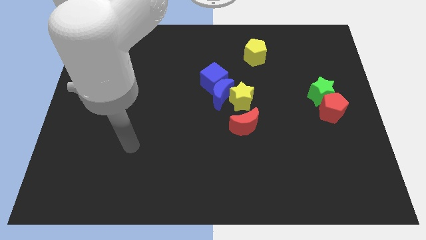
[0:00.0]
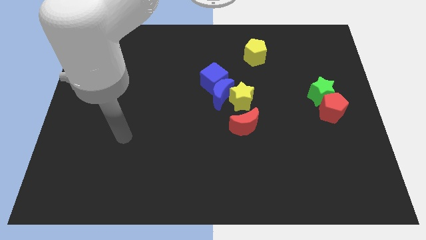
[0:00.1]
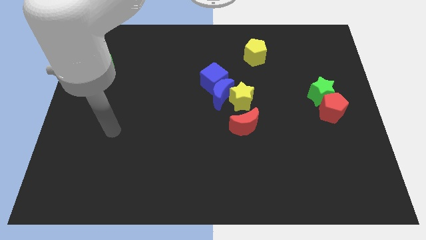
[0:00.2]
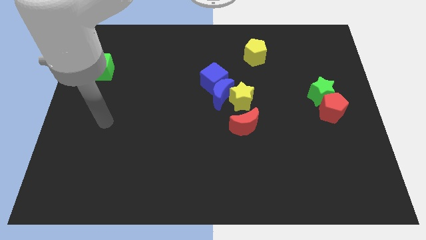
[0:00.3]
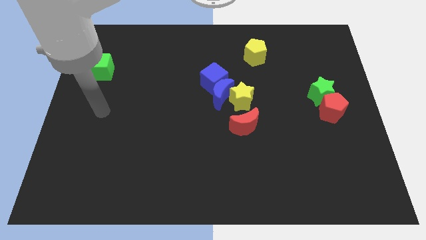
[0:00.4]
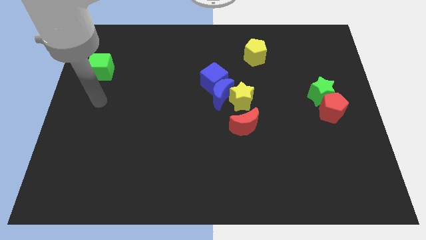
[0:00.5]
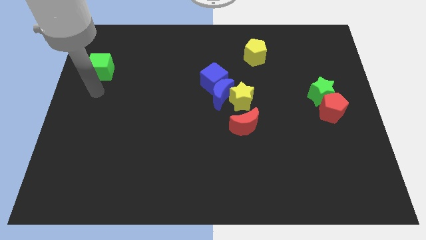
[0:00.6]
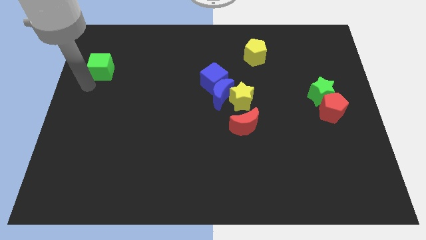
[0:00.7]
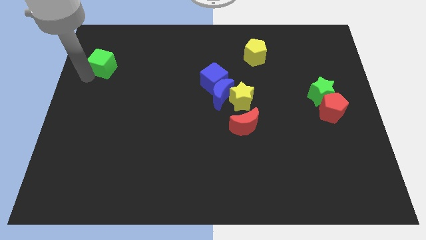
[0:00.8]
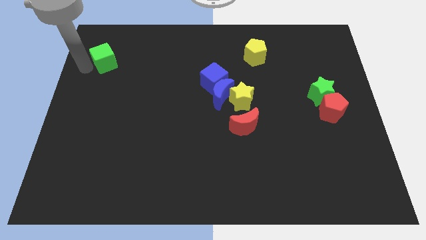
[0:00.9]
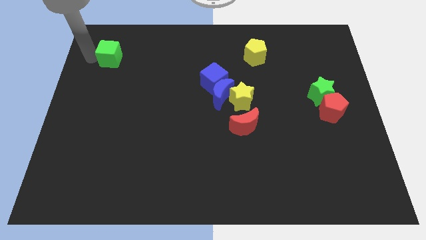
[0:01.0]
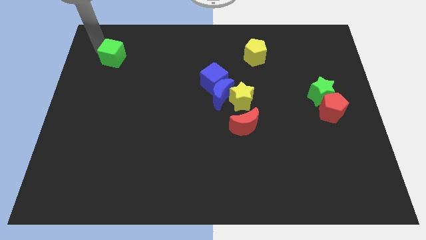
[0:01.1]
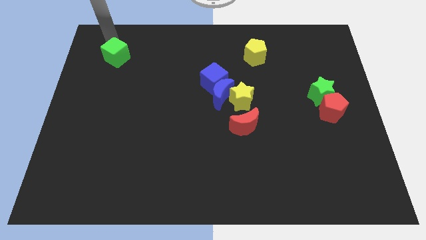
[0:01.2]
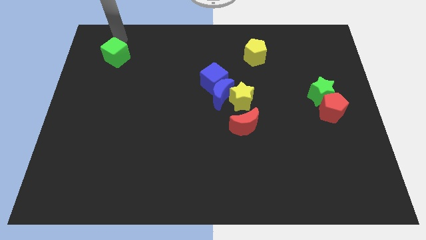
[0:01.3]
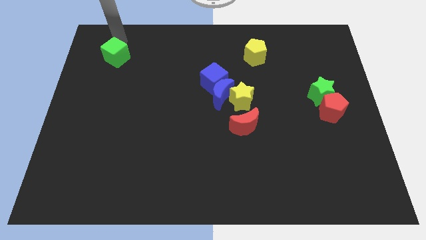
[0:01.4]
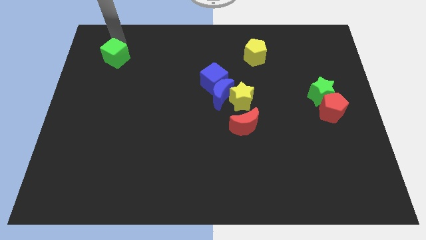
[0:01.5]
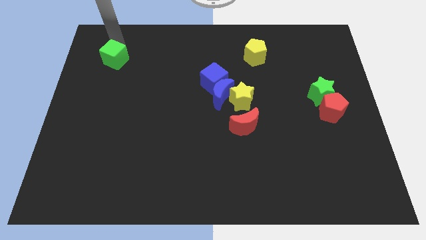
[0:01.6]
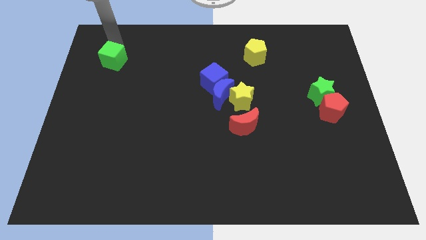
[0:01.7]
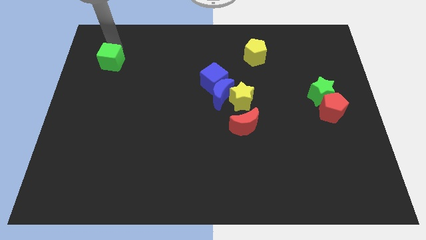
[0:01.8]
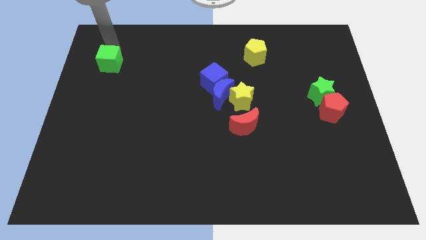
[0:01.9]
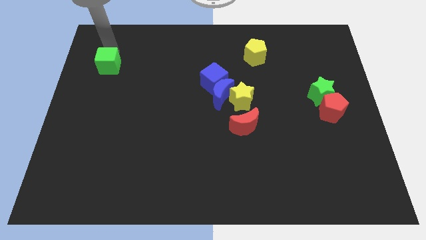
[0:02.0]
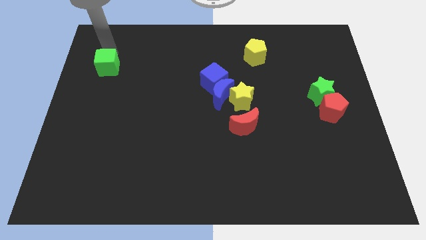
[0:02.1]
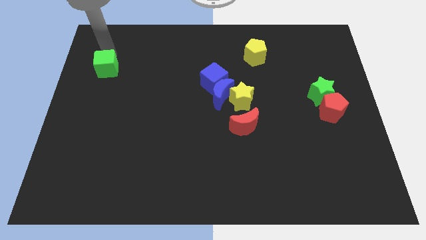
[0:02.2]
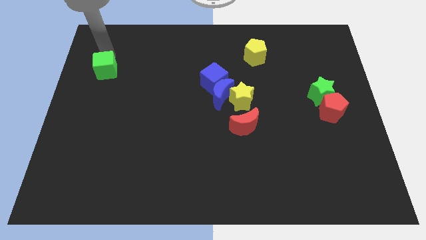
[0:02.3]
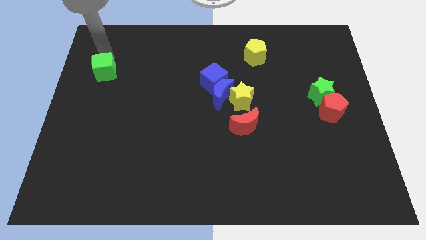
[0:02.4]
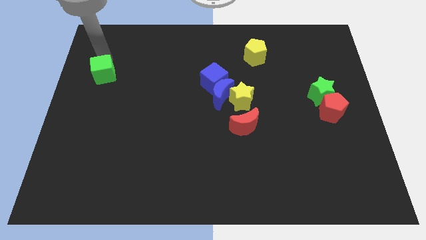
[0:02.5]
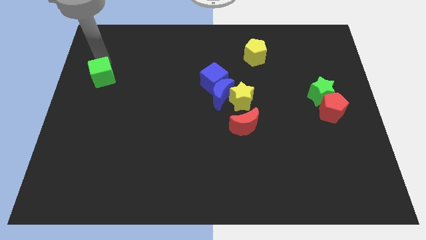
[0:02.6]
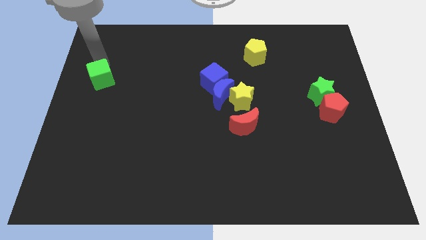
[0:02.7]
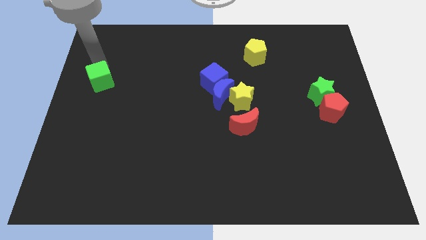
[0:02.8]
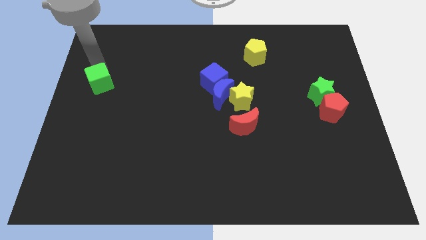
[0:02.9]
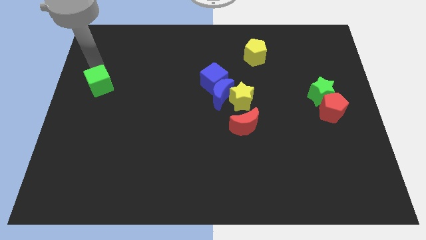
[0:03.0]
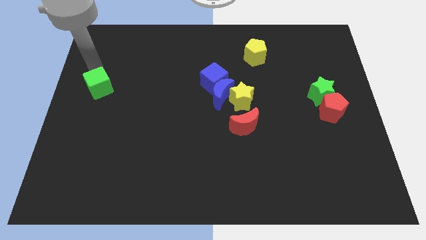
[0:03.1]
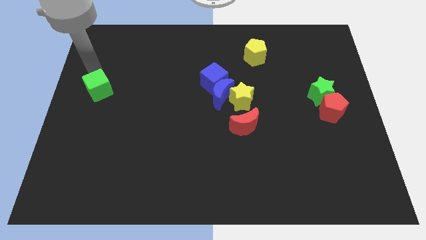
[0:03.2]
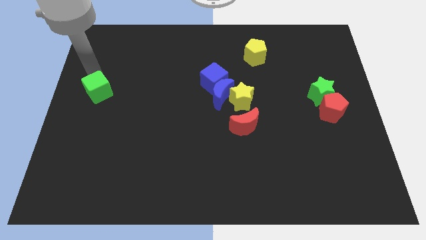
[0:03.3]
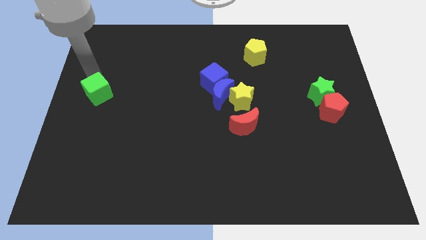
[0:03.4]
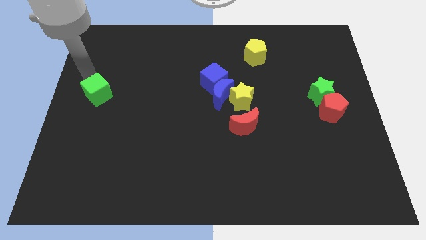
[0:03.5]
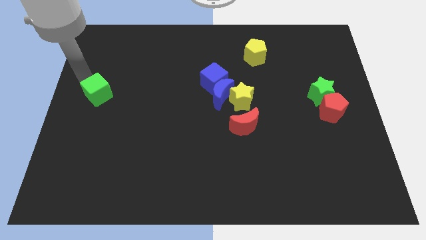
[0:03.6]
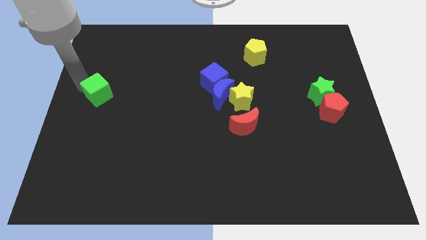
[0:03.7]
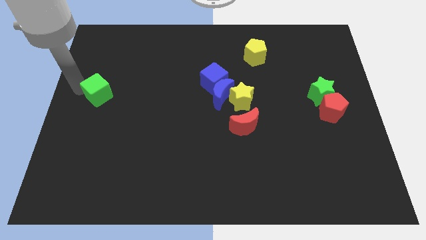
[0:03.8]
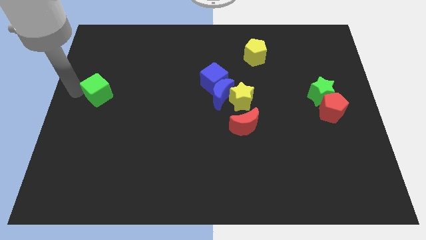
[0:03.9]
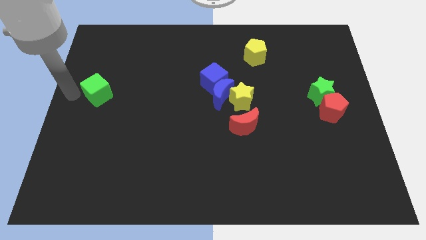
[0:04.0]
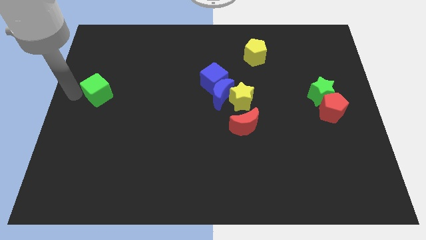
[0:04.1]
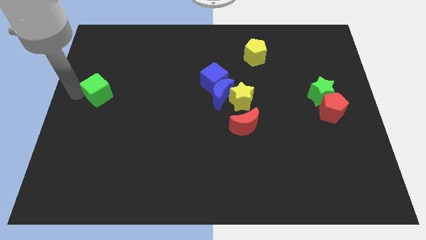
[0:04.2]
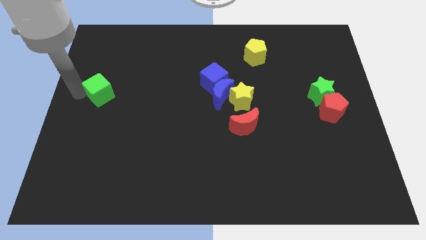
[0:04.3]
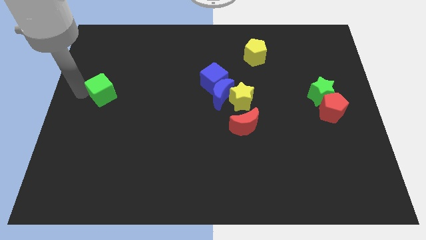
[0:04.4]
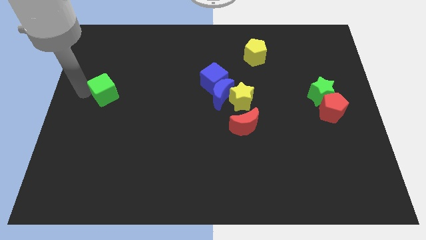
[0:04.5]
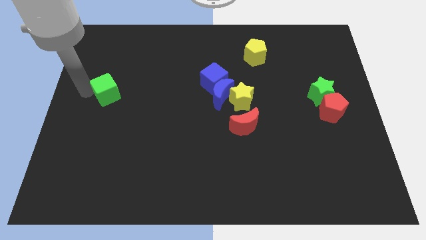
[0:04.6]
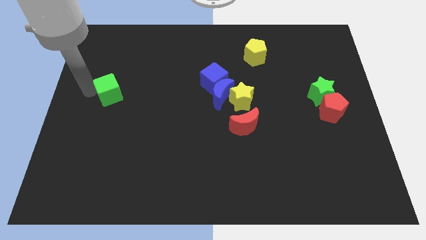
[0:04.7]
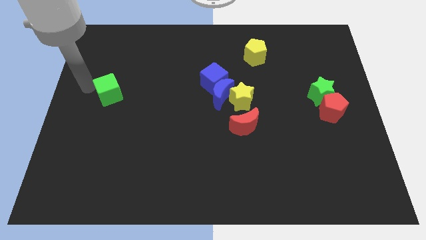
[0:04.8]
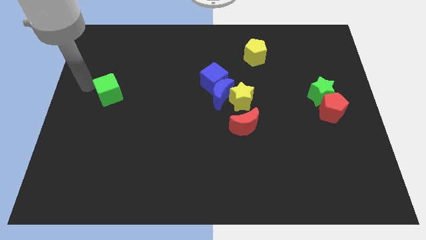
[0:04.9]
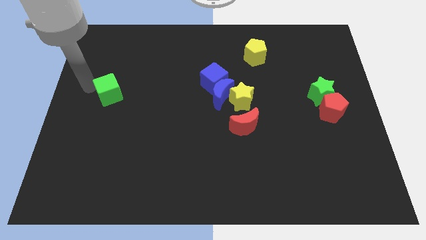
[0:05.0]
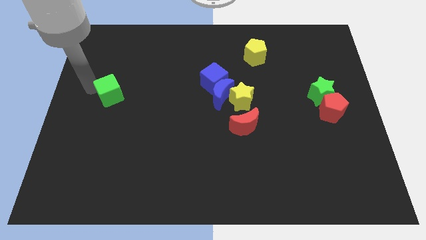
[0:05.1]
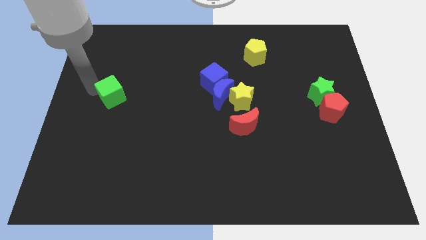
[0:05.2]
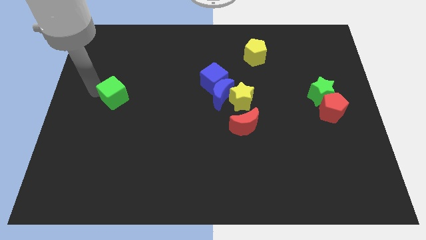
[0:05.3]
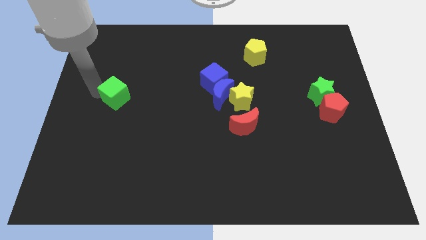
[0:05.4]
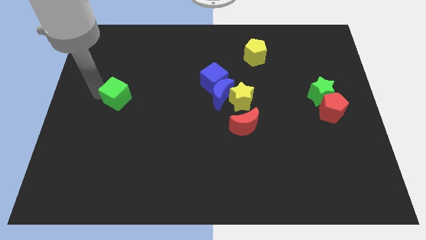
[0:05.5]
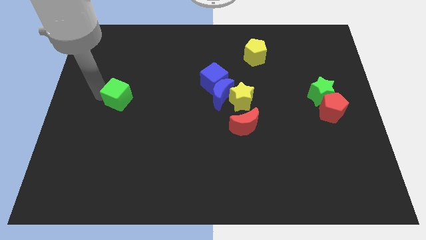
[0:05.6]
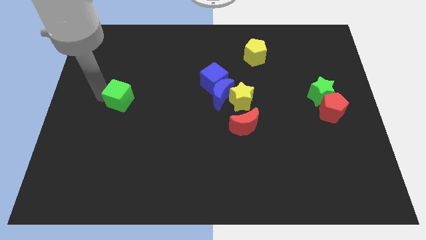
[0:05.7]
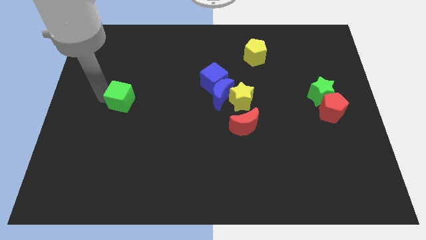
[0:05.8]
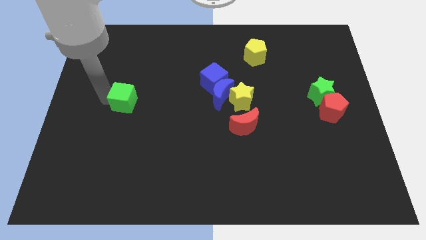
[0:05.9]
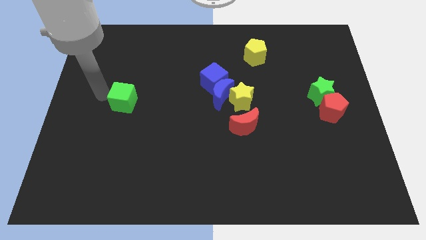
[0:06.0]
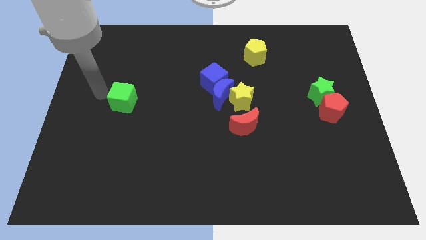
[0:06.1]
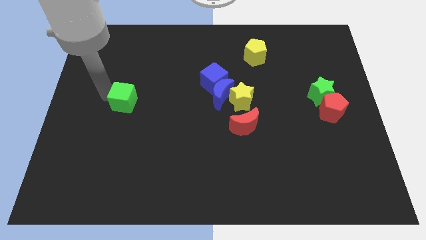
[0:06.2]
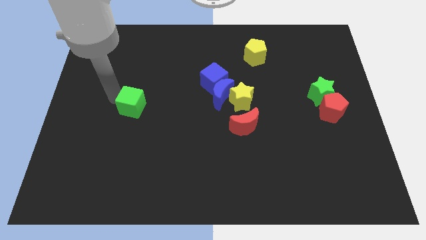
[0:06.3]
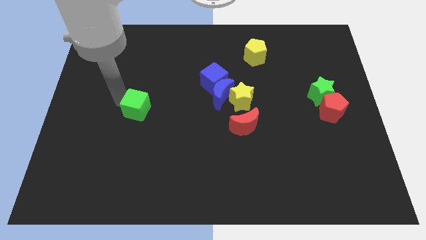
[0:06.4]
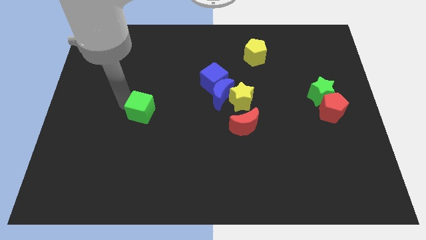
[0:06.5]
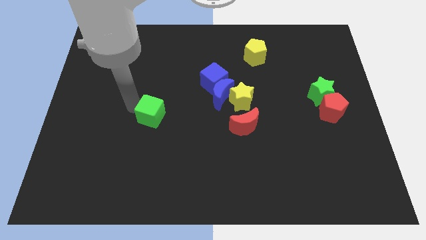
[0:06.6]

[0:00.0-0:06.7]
slide the green cube diagonally down and right

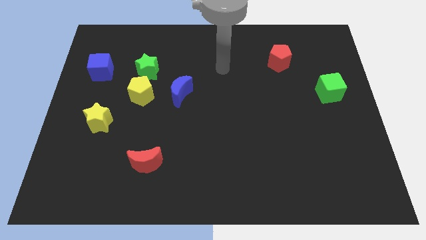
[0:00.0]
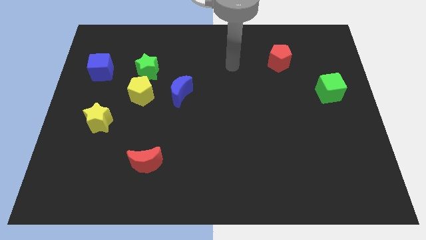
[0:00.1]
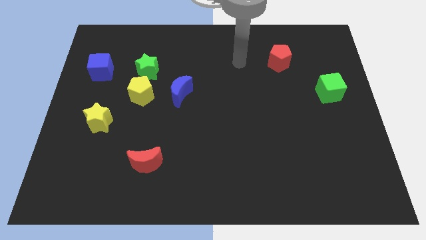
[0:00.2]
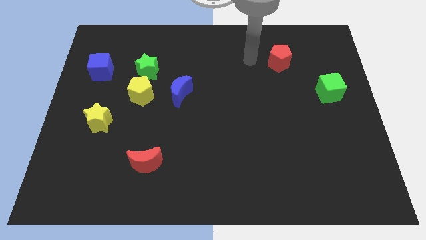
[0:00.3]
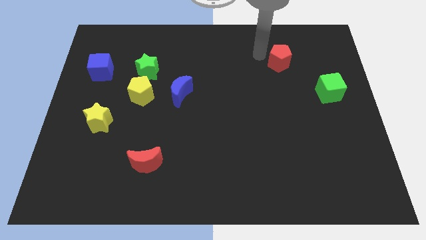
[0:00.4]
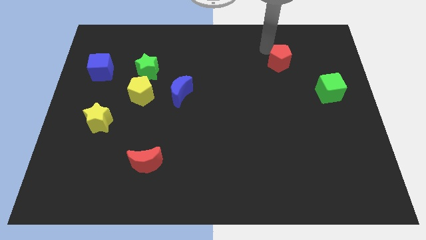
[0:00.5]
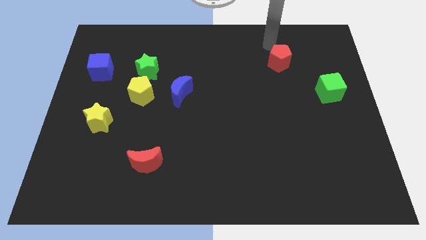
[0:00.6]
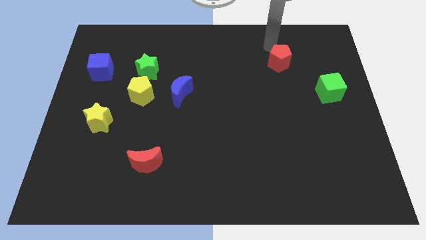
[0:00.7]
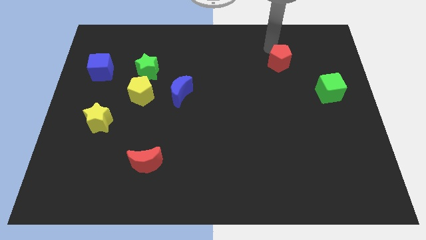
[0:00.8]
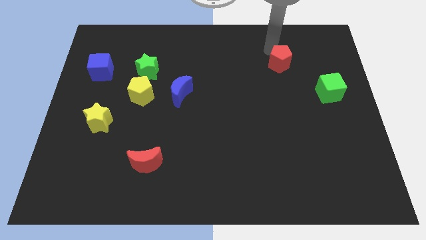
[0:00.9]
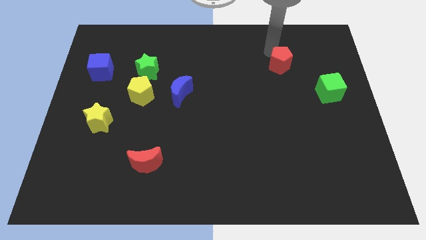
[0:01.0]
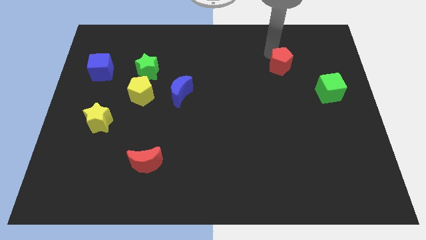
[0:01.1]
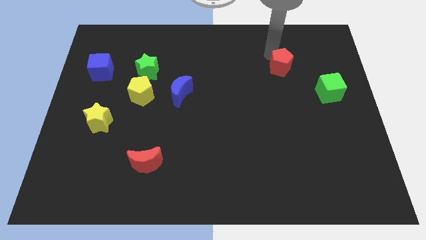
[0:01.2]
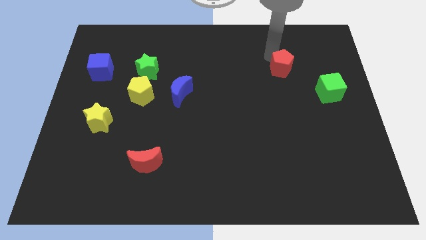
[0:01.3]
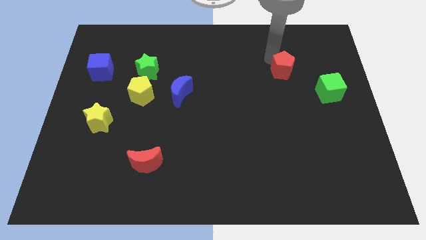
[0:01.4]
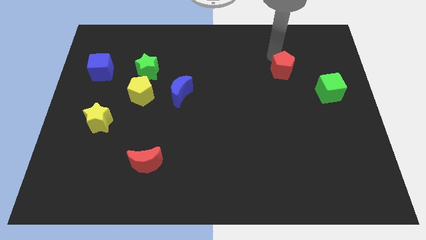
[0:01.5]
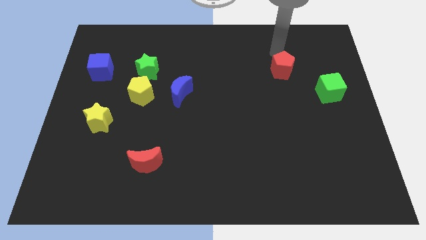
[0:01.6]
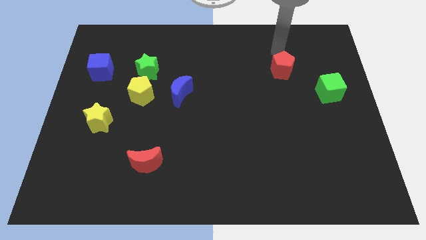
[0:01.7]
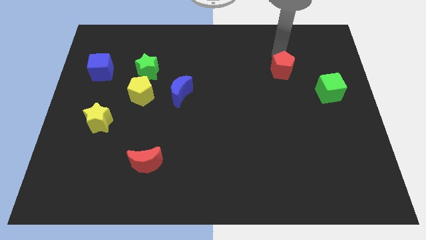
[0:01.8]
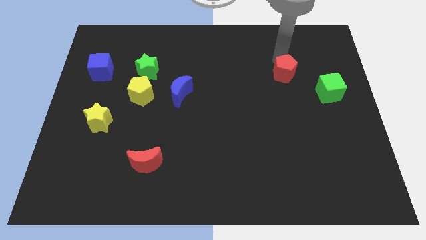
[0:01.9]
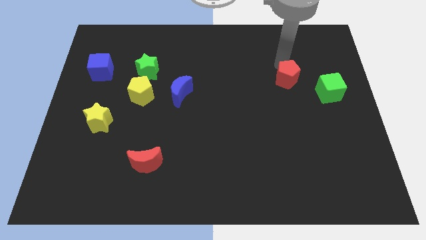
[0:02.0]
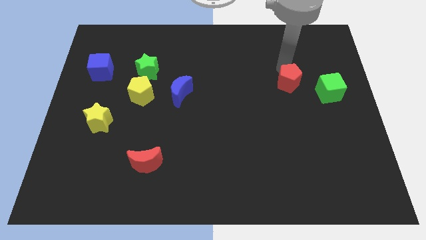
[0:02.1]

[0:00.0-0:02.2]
slide the red pentagon somewhat downwards
